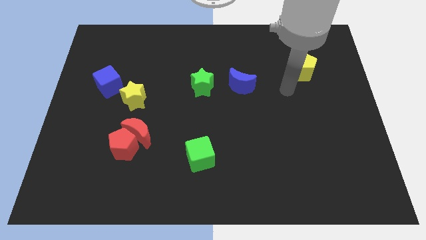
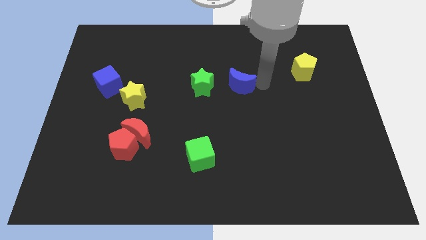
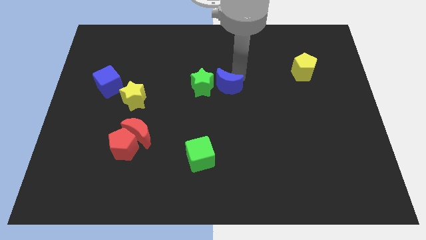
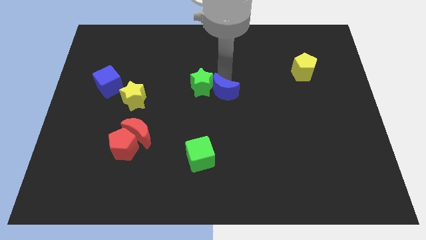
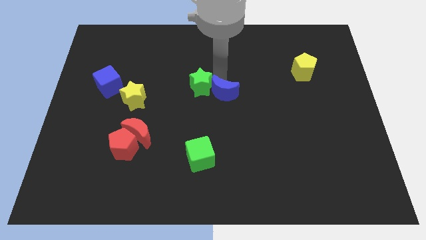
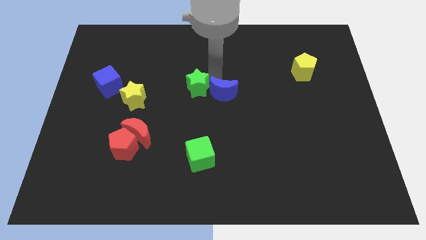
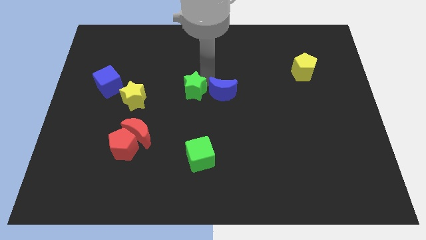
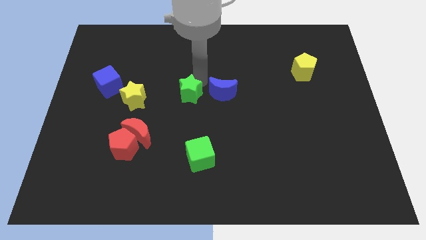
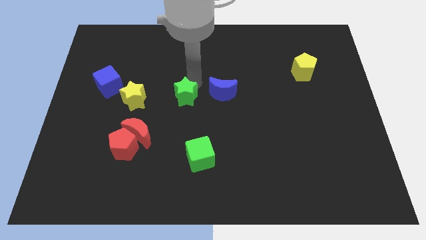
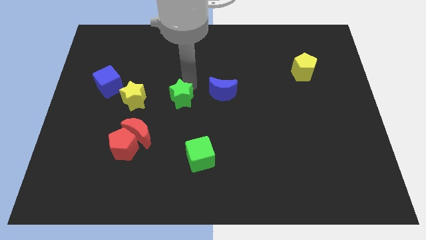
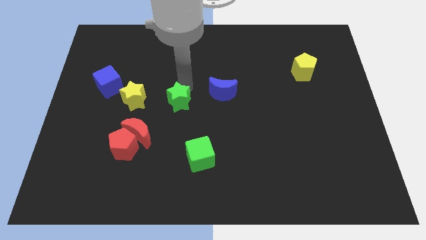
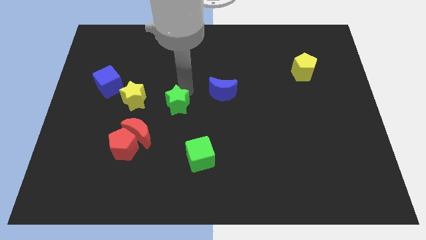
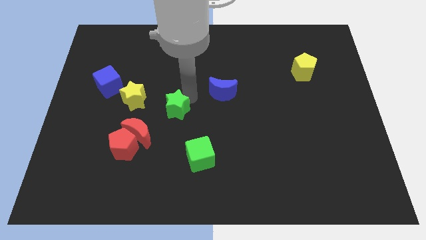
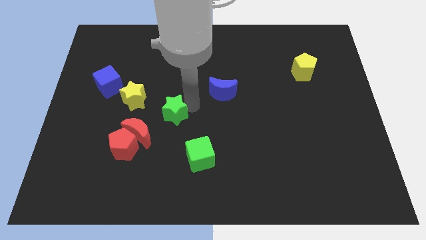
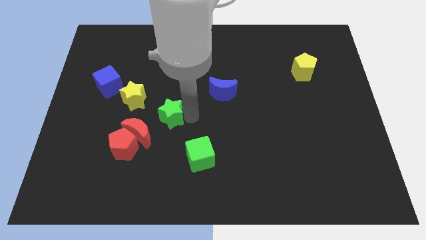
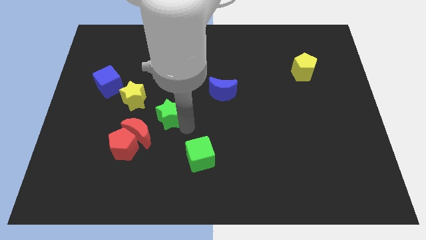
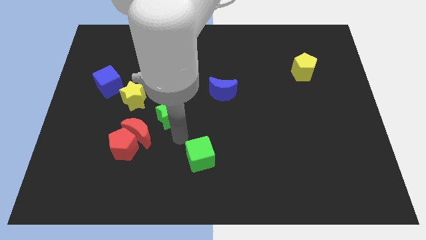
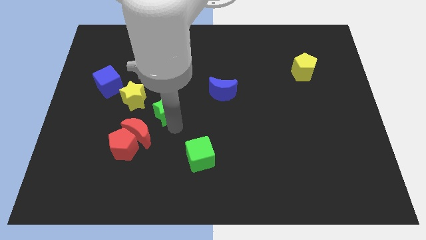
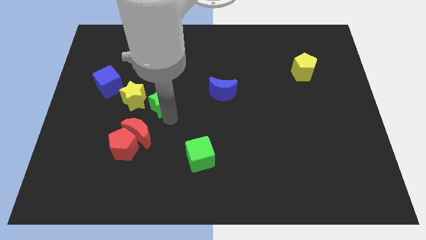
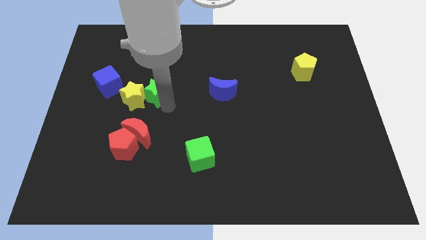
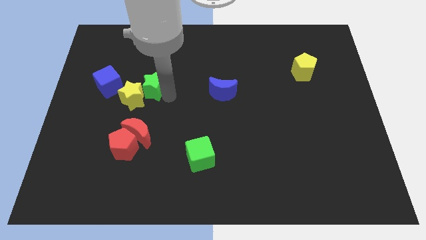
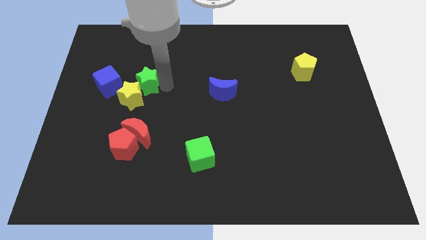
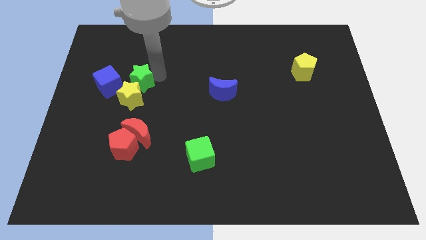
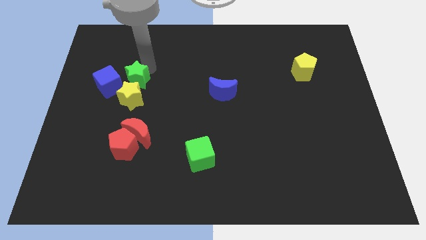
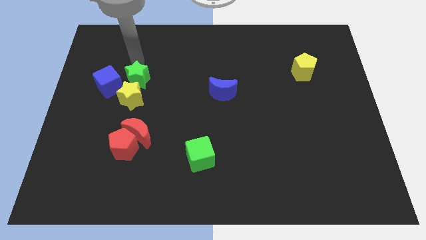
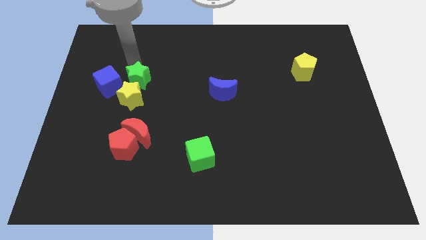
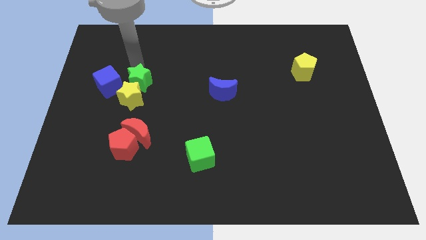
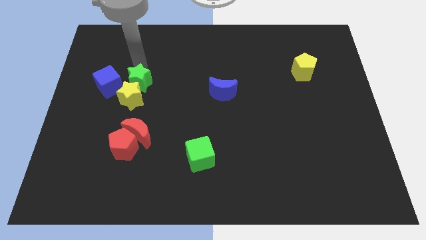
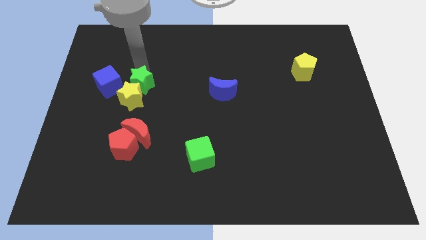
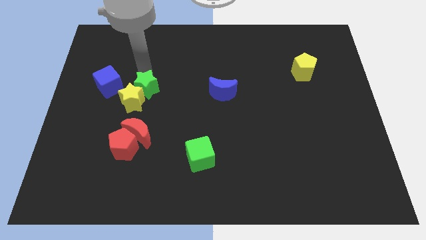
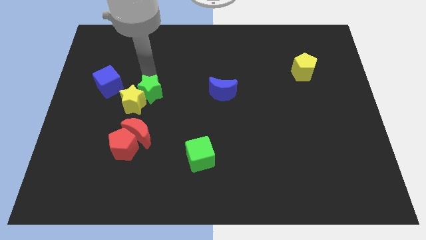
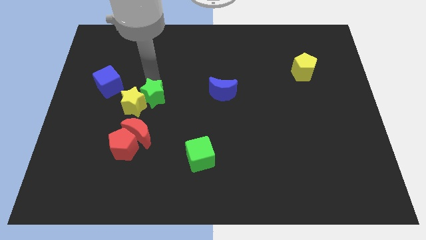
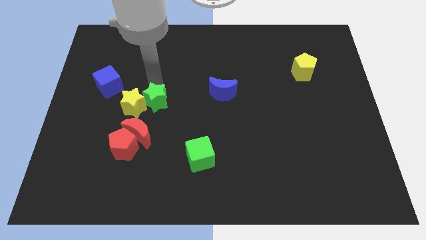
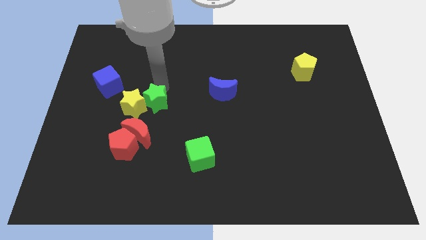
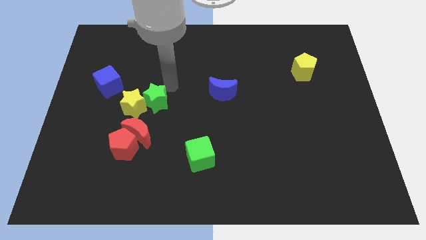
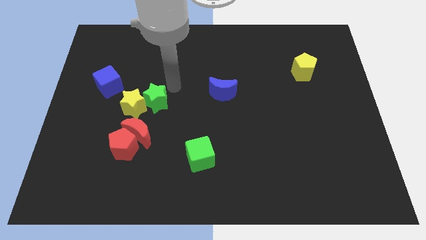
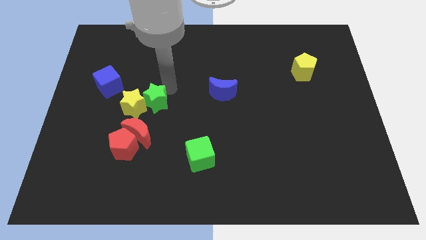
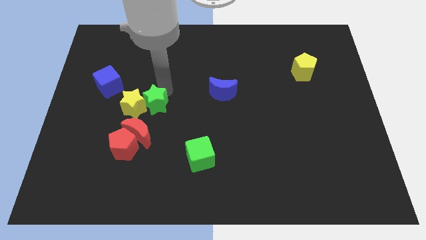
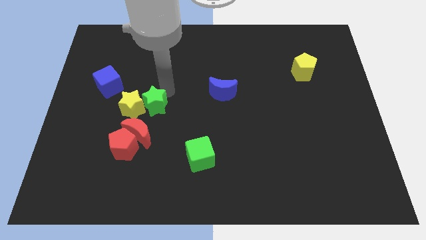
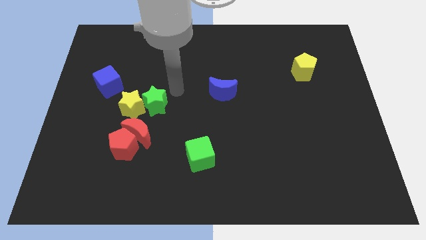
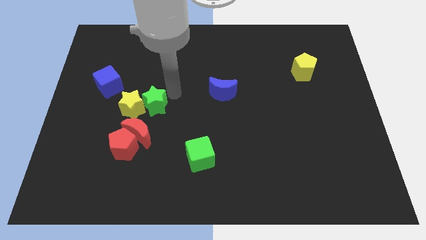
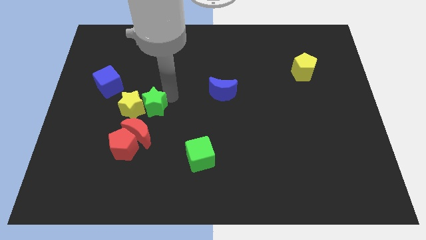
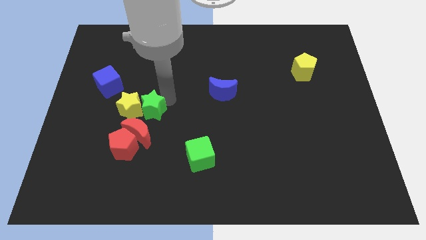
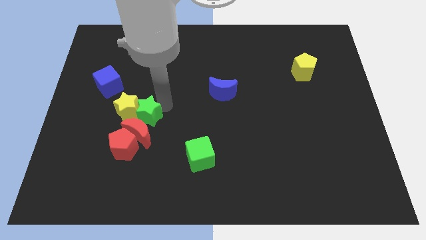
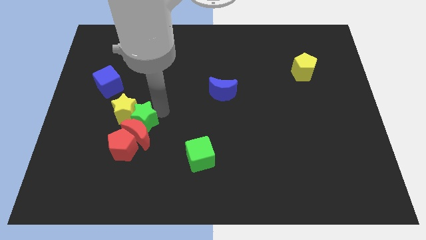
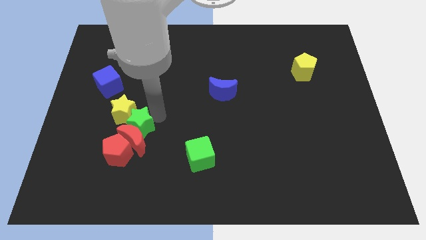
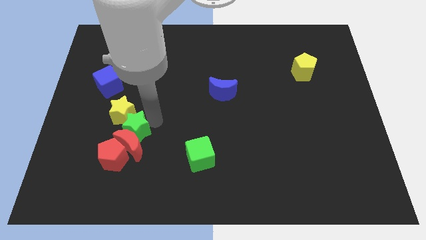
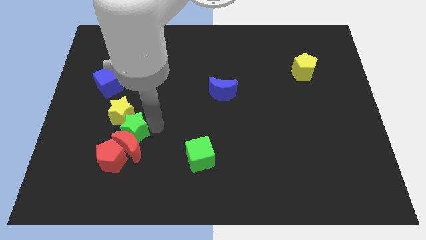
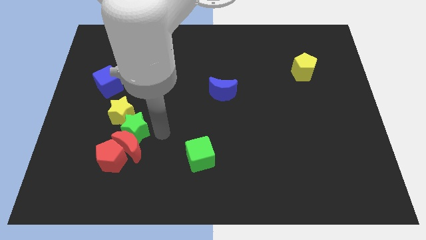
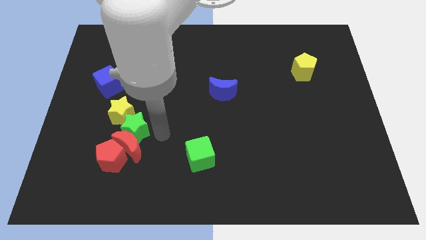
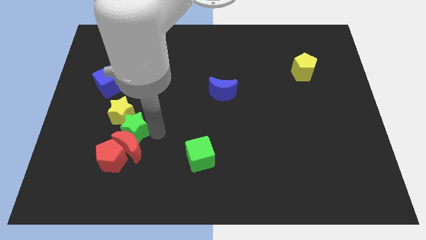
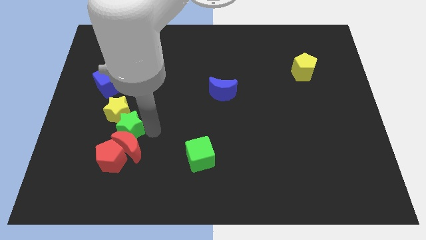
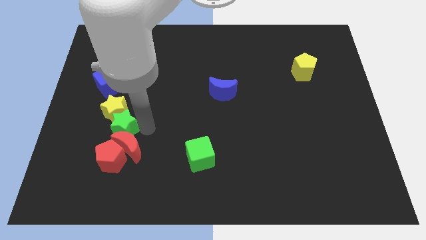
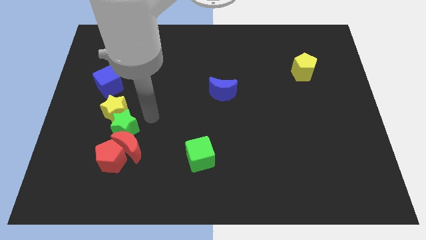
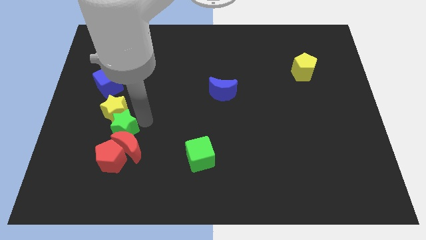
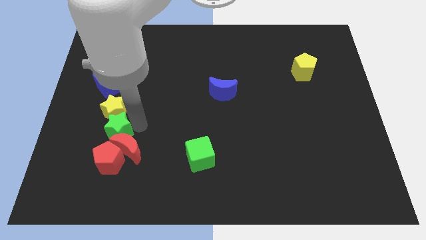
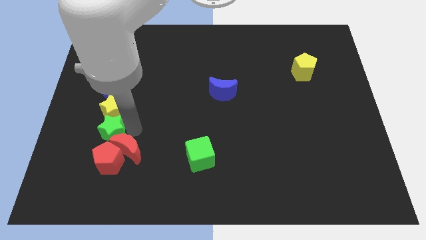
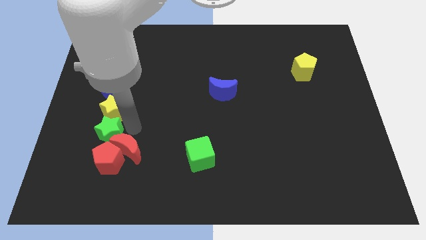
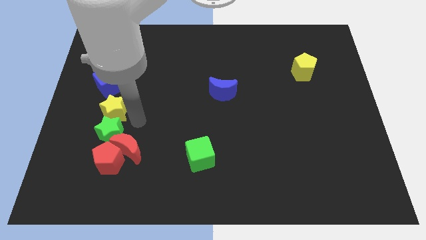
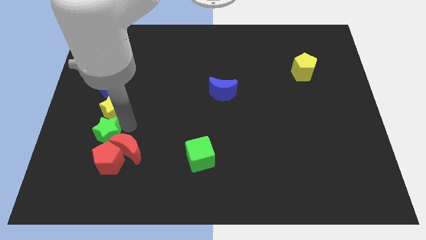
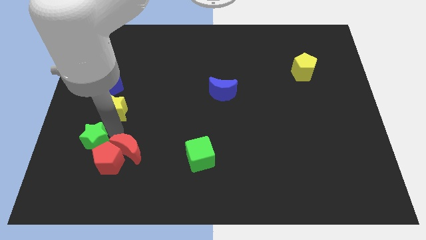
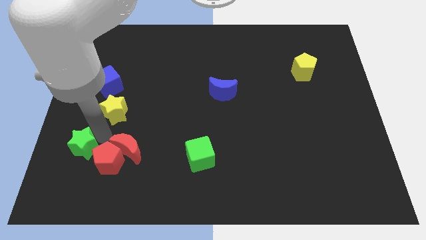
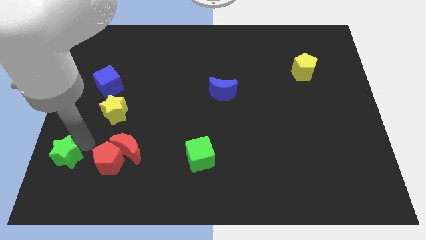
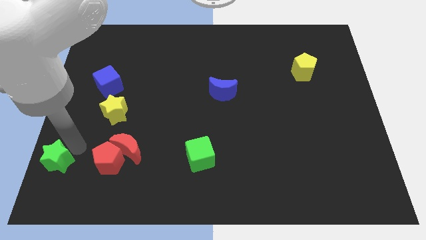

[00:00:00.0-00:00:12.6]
move the green star to the lower left corner
